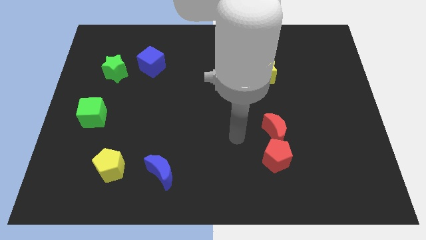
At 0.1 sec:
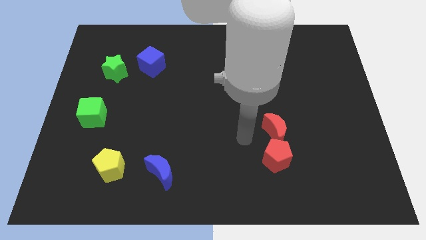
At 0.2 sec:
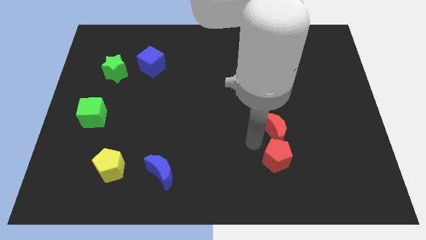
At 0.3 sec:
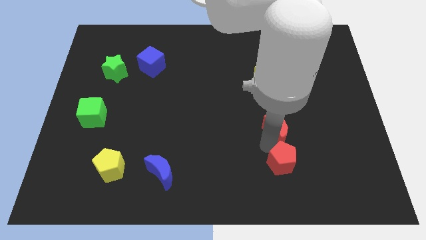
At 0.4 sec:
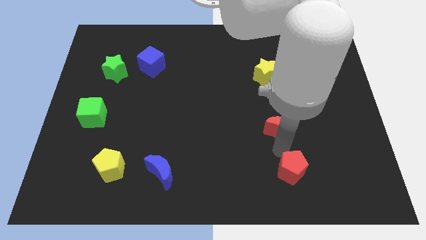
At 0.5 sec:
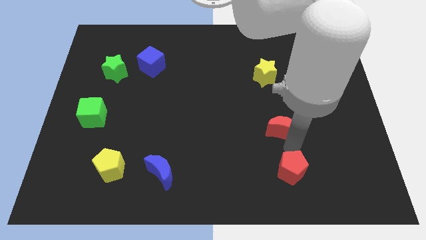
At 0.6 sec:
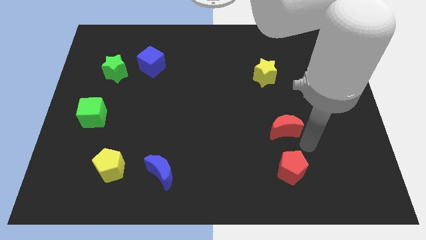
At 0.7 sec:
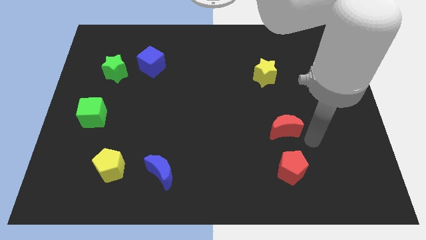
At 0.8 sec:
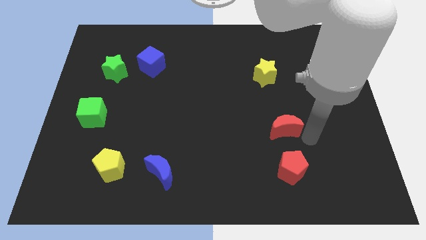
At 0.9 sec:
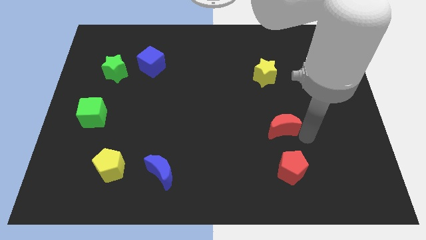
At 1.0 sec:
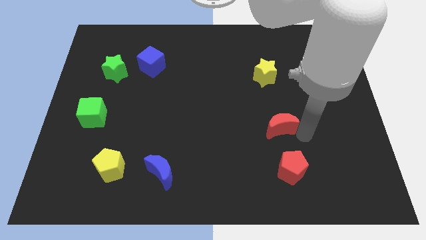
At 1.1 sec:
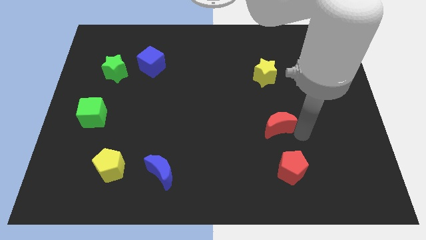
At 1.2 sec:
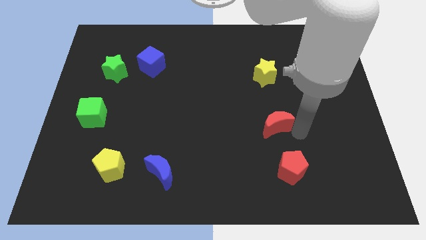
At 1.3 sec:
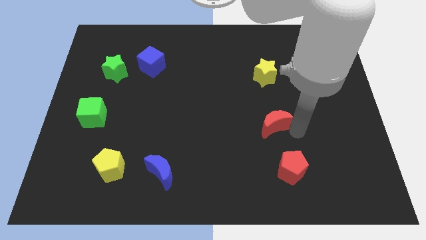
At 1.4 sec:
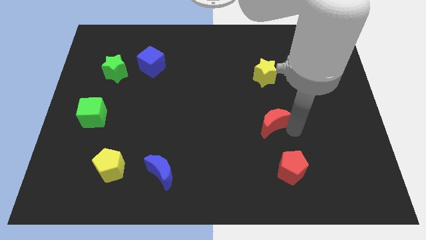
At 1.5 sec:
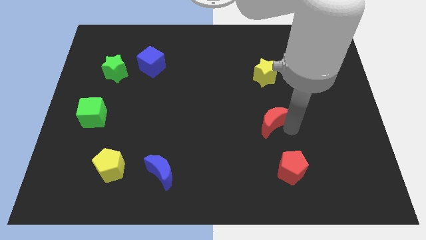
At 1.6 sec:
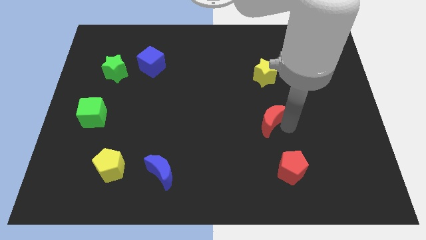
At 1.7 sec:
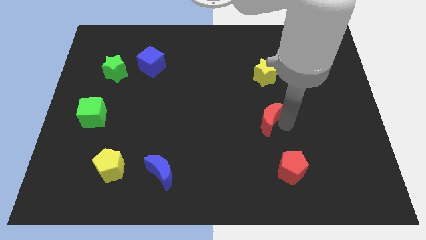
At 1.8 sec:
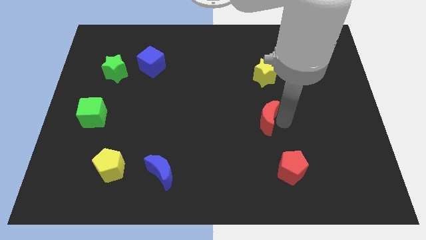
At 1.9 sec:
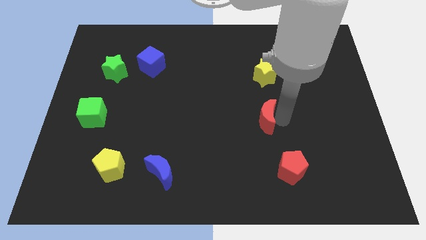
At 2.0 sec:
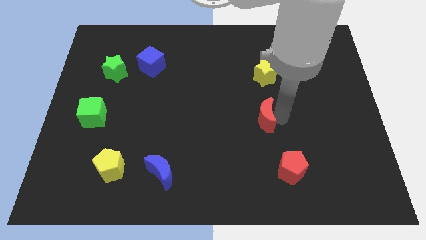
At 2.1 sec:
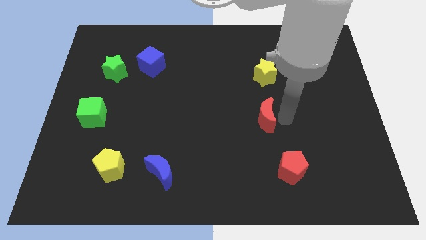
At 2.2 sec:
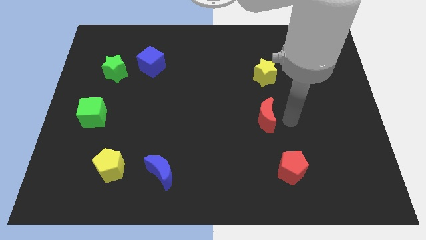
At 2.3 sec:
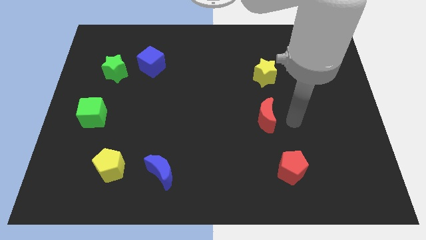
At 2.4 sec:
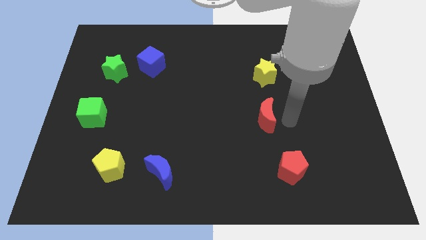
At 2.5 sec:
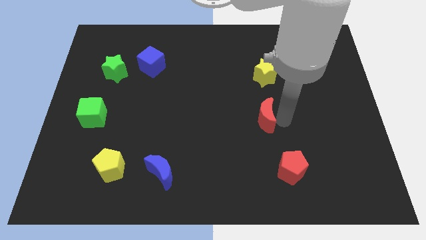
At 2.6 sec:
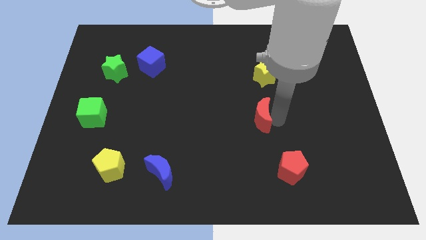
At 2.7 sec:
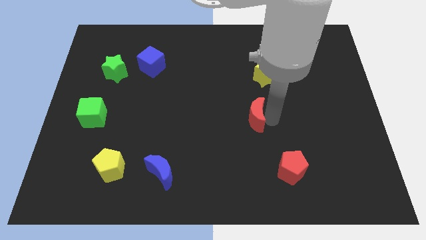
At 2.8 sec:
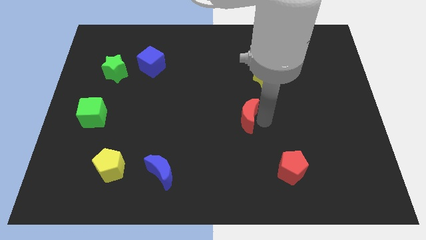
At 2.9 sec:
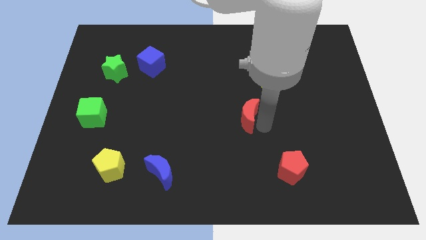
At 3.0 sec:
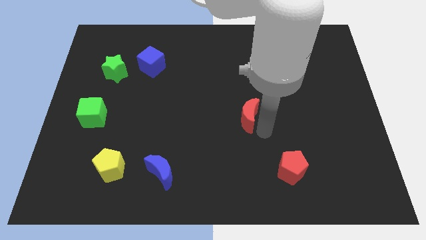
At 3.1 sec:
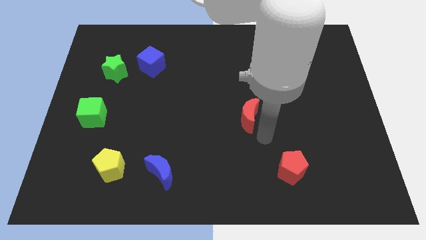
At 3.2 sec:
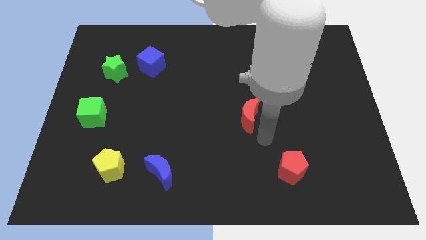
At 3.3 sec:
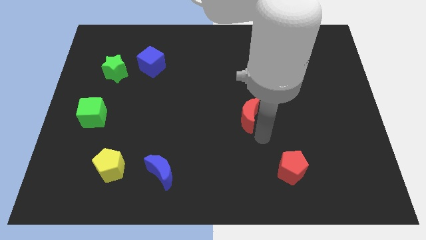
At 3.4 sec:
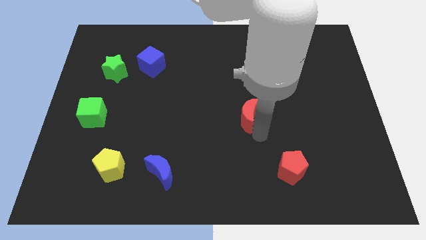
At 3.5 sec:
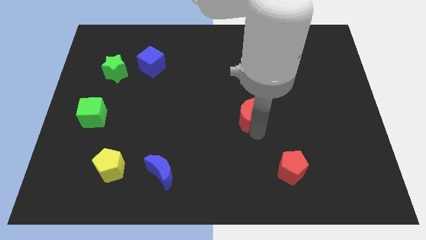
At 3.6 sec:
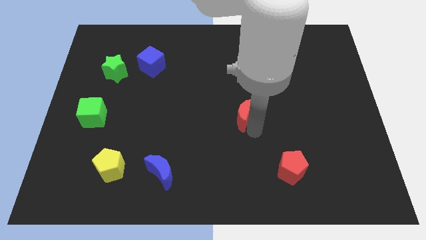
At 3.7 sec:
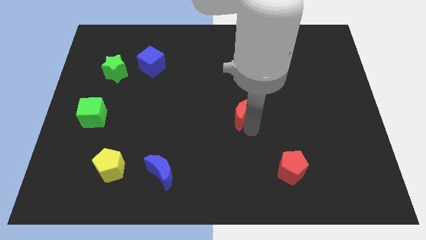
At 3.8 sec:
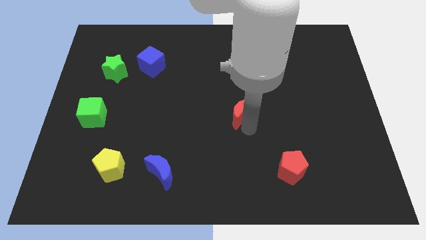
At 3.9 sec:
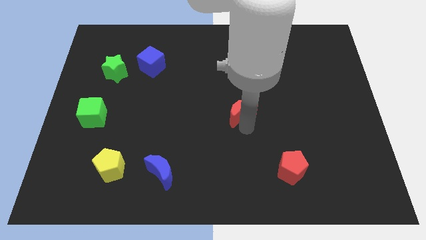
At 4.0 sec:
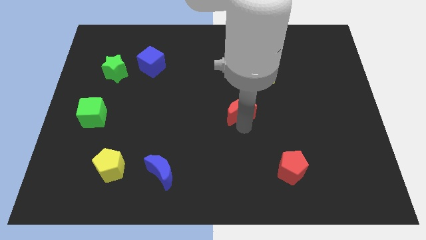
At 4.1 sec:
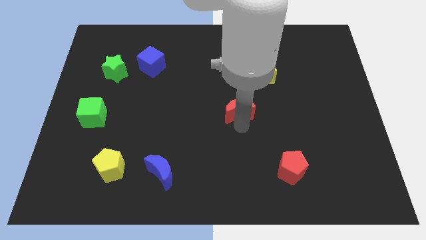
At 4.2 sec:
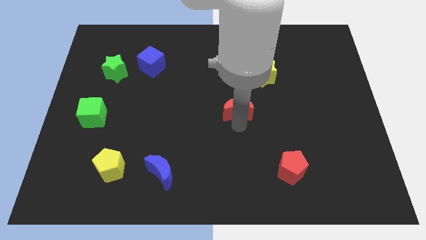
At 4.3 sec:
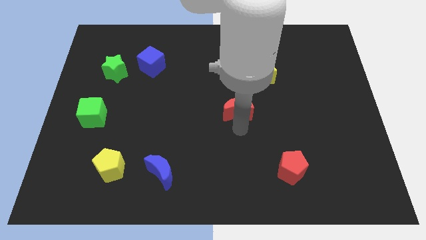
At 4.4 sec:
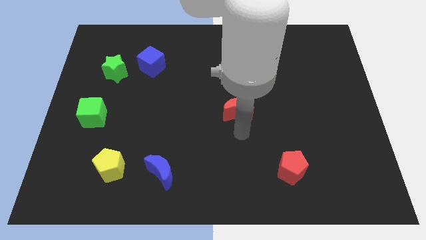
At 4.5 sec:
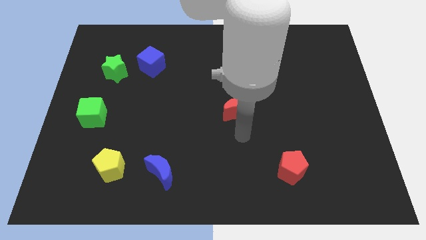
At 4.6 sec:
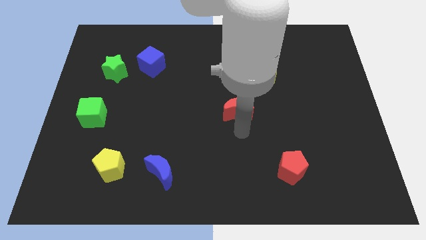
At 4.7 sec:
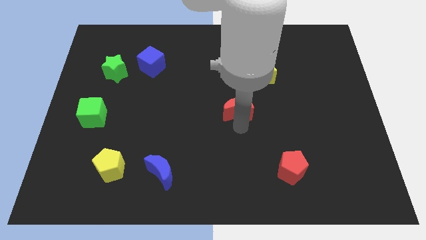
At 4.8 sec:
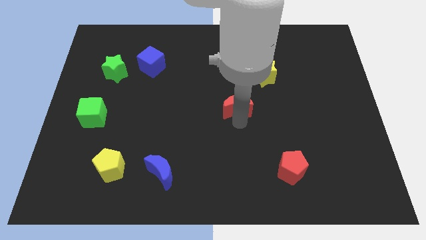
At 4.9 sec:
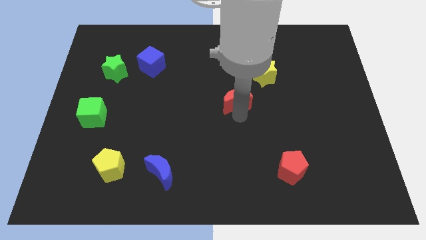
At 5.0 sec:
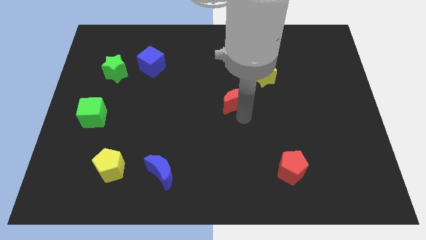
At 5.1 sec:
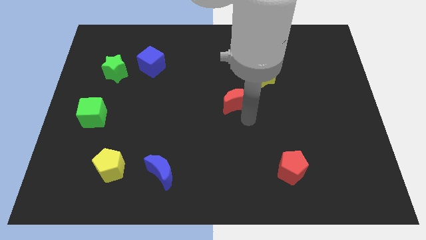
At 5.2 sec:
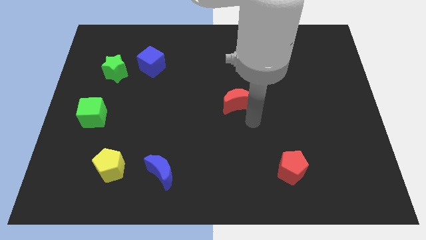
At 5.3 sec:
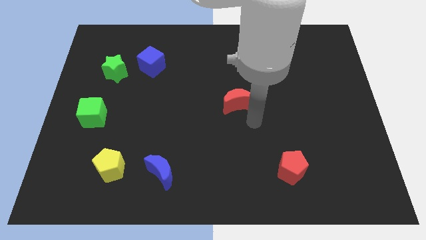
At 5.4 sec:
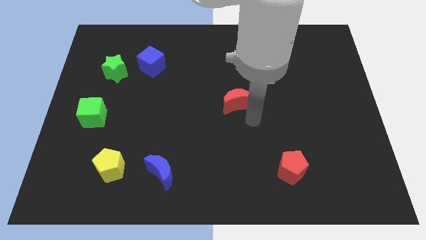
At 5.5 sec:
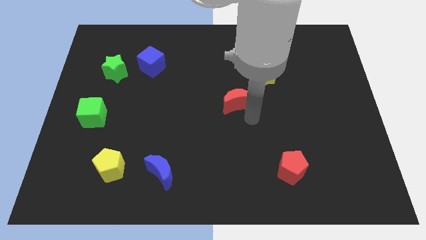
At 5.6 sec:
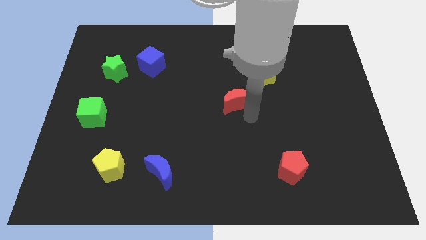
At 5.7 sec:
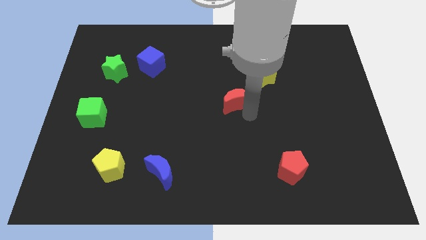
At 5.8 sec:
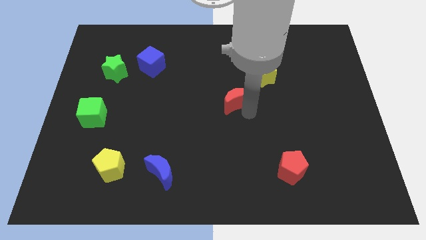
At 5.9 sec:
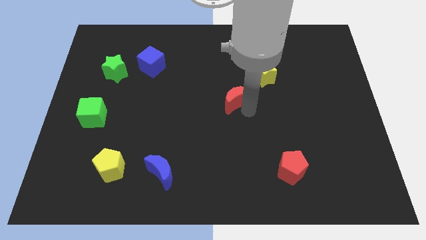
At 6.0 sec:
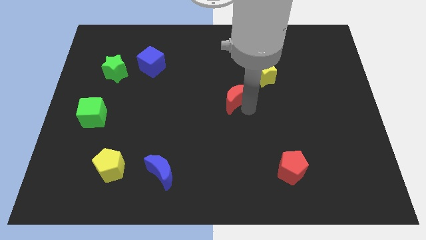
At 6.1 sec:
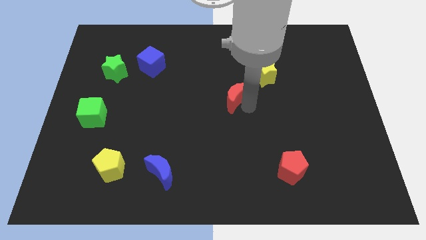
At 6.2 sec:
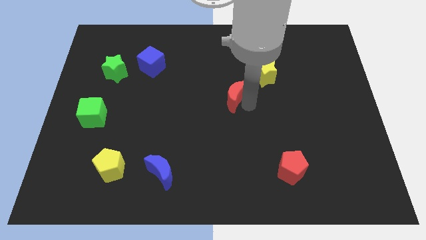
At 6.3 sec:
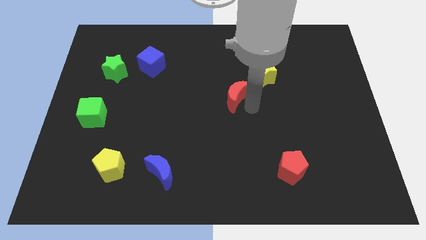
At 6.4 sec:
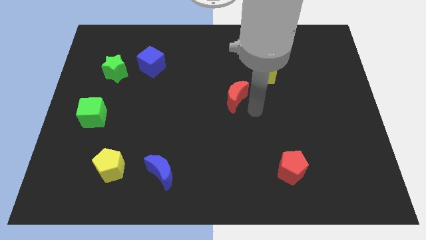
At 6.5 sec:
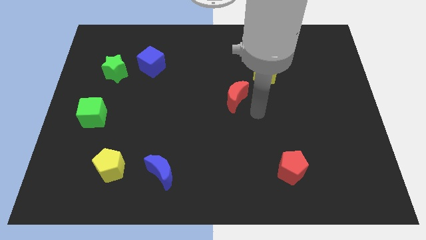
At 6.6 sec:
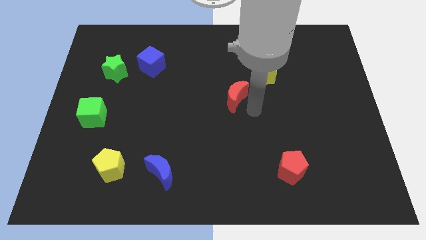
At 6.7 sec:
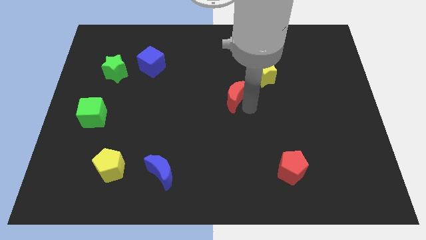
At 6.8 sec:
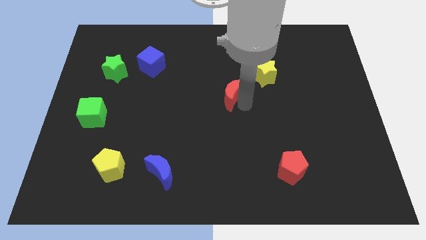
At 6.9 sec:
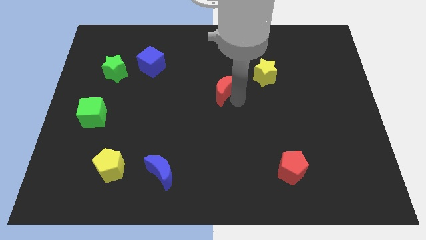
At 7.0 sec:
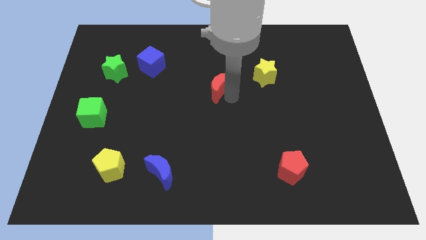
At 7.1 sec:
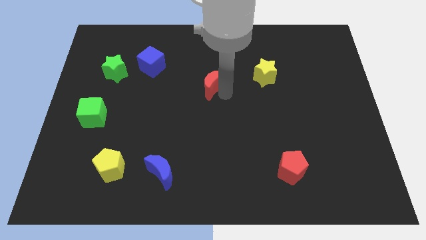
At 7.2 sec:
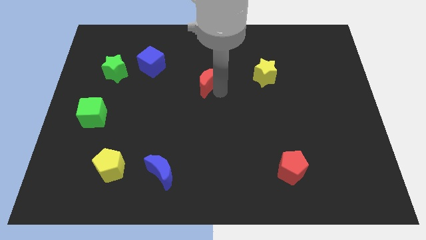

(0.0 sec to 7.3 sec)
push the red moon diagonally up and left

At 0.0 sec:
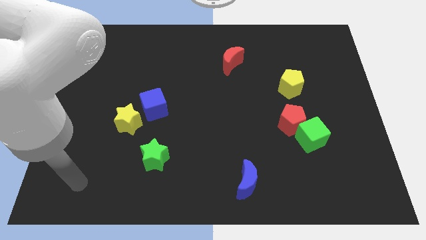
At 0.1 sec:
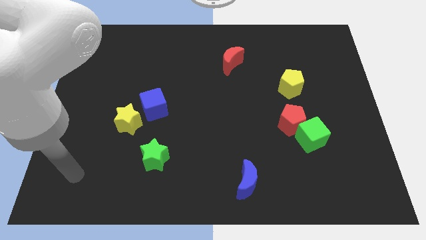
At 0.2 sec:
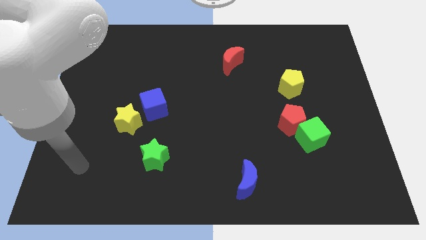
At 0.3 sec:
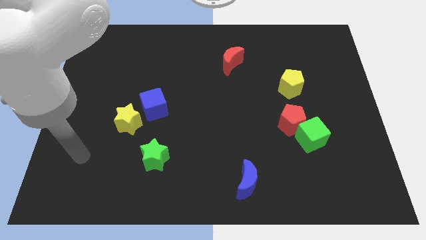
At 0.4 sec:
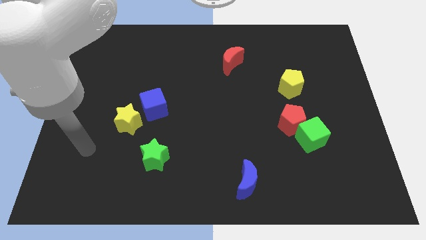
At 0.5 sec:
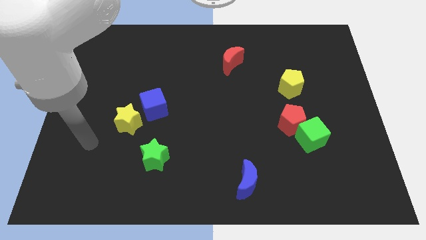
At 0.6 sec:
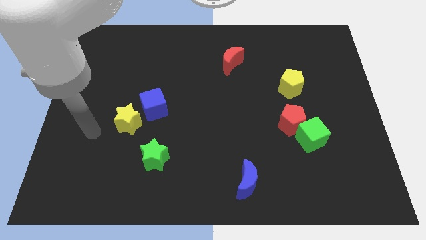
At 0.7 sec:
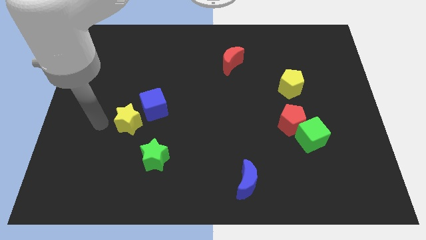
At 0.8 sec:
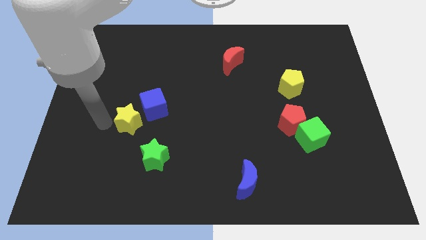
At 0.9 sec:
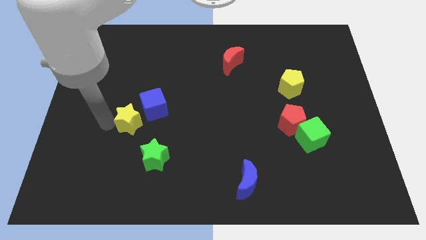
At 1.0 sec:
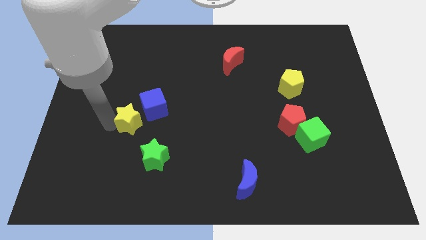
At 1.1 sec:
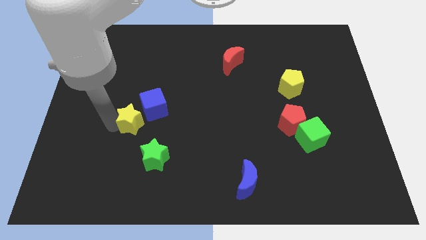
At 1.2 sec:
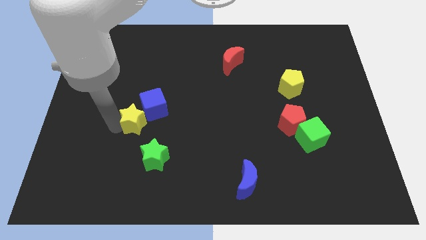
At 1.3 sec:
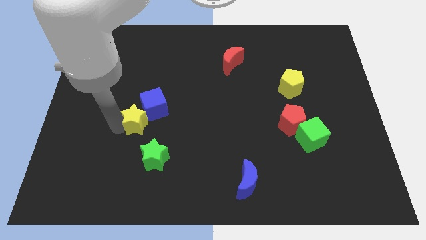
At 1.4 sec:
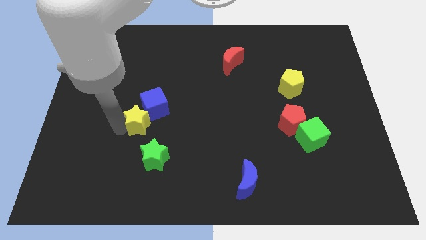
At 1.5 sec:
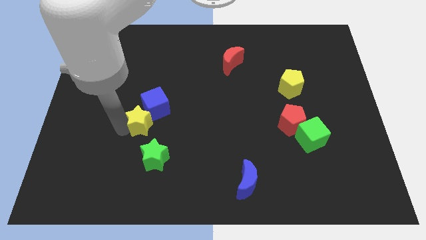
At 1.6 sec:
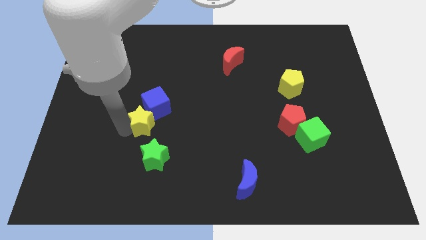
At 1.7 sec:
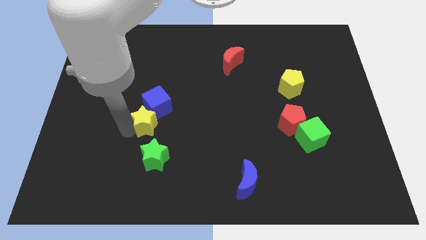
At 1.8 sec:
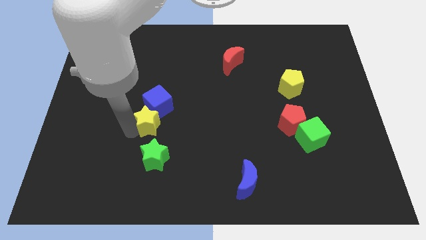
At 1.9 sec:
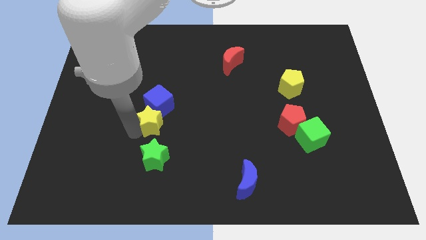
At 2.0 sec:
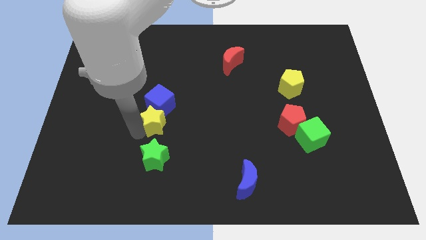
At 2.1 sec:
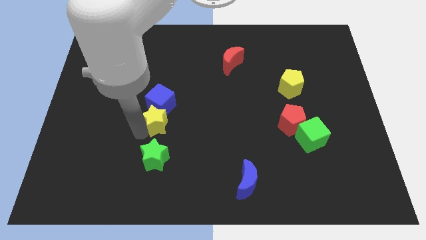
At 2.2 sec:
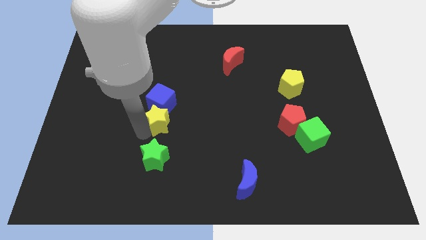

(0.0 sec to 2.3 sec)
push the yellow star right somewhat
